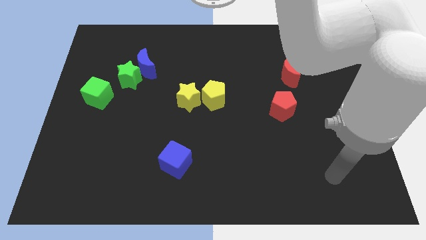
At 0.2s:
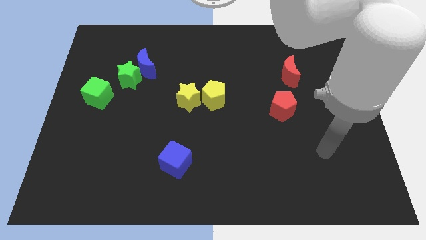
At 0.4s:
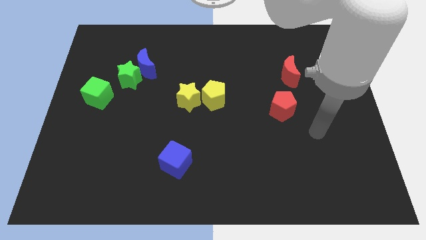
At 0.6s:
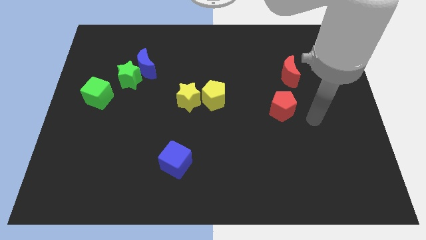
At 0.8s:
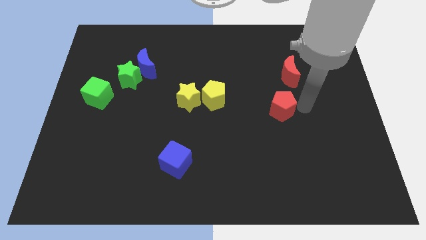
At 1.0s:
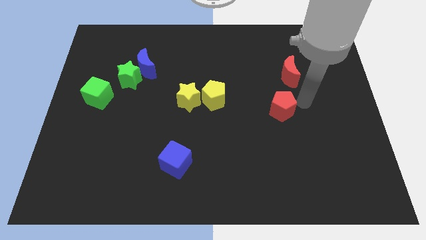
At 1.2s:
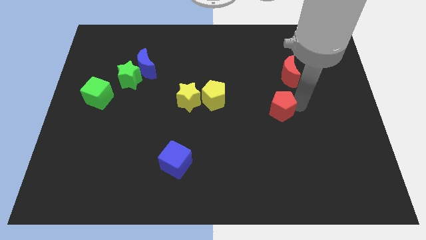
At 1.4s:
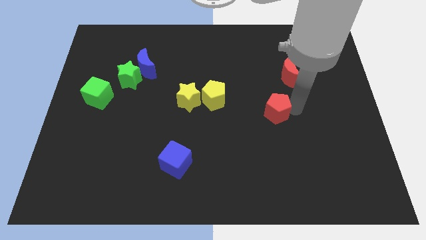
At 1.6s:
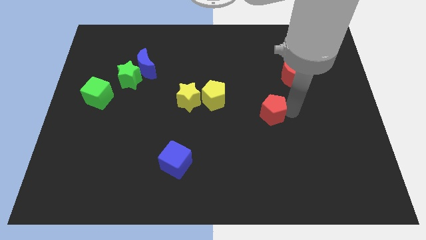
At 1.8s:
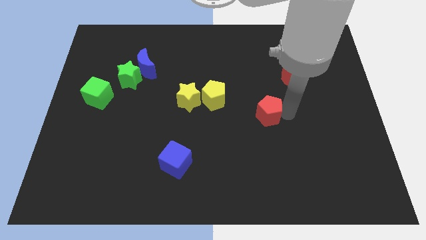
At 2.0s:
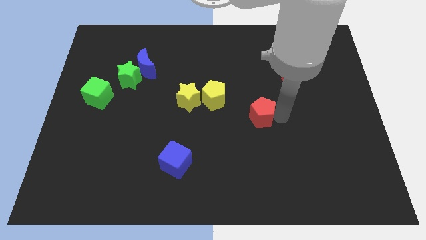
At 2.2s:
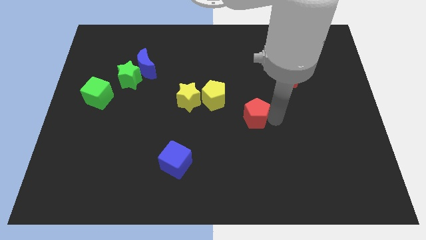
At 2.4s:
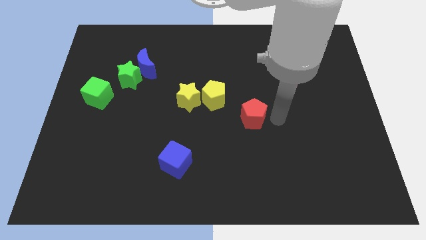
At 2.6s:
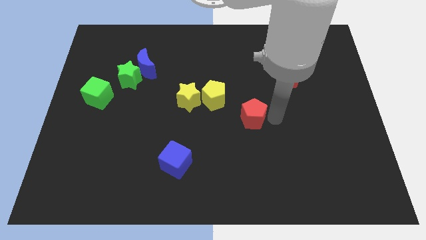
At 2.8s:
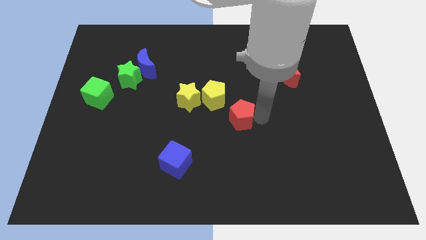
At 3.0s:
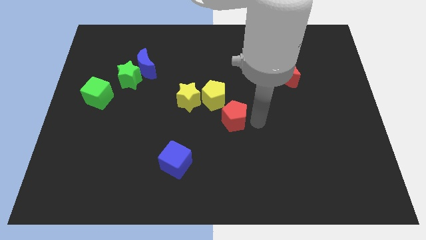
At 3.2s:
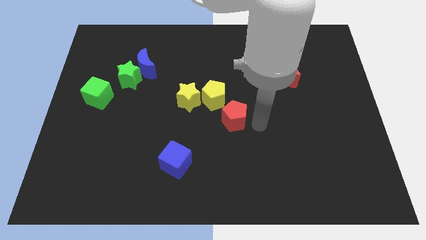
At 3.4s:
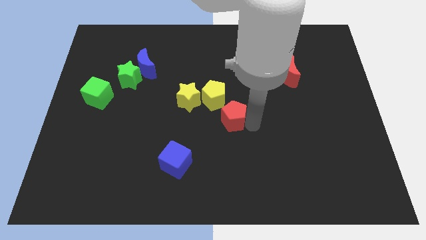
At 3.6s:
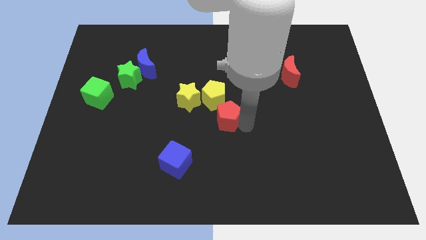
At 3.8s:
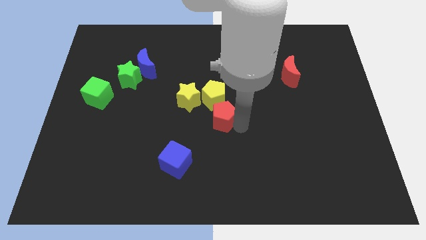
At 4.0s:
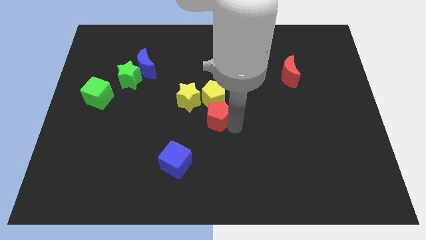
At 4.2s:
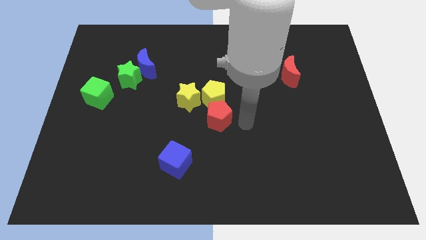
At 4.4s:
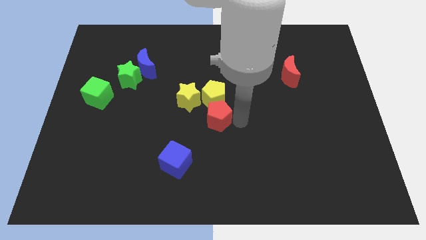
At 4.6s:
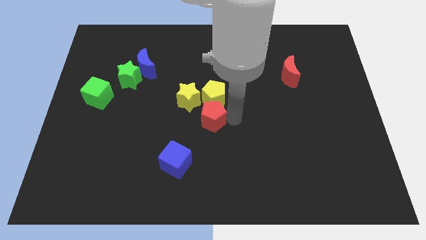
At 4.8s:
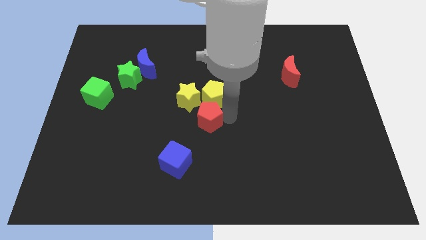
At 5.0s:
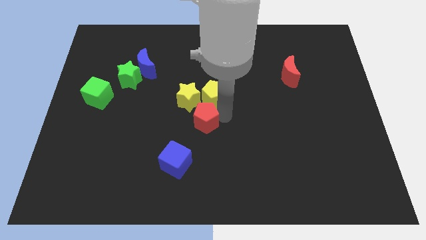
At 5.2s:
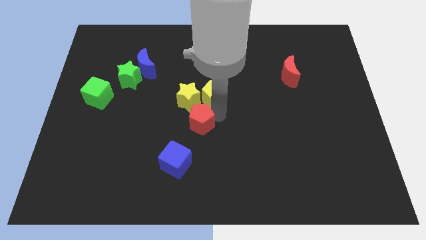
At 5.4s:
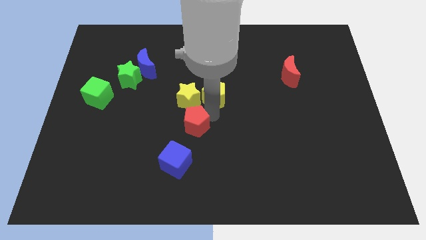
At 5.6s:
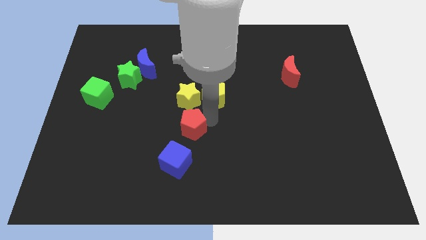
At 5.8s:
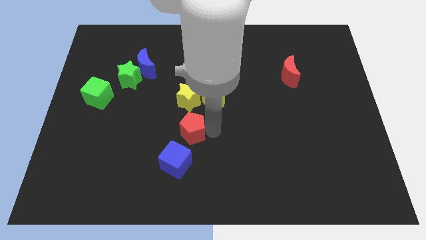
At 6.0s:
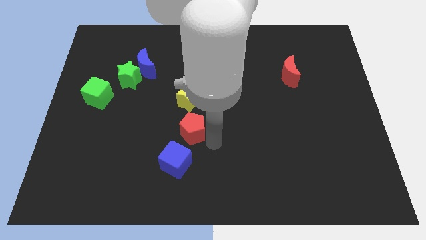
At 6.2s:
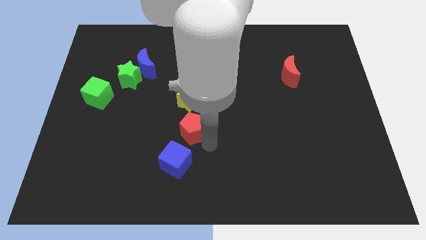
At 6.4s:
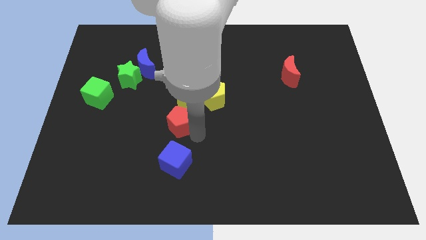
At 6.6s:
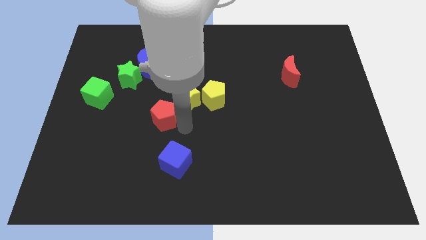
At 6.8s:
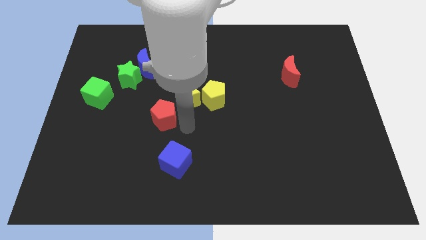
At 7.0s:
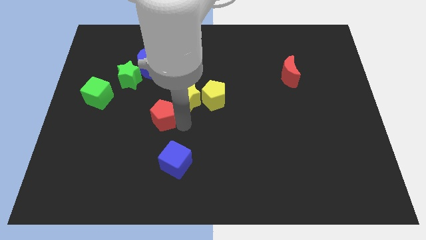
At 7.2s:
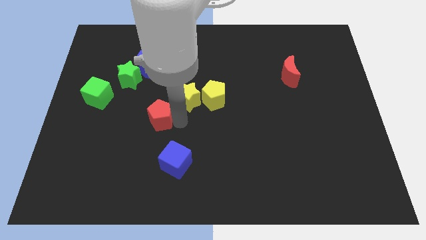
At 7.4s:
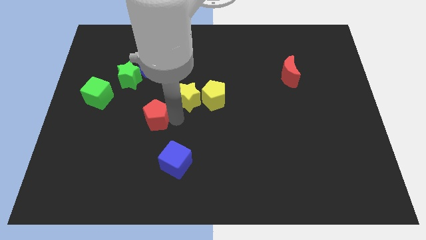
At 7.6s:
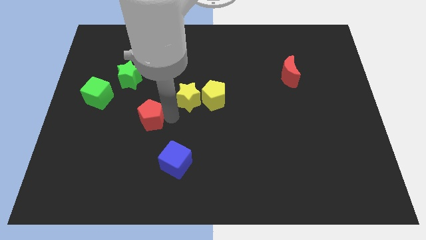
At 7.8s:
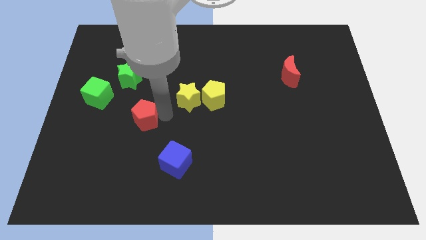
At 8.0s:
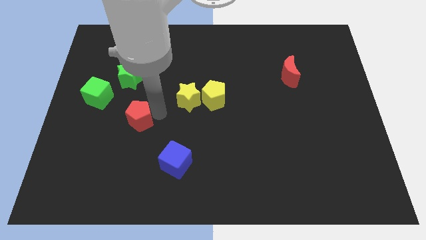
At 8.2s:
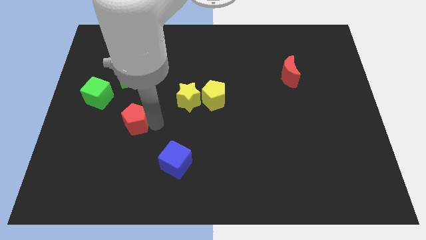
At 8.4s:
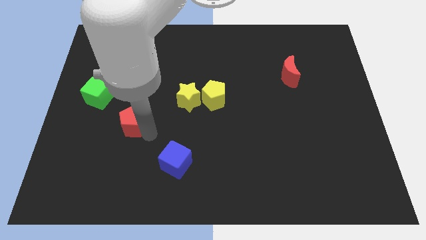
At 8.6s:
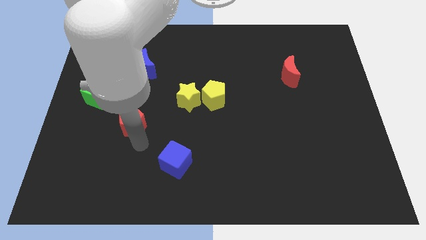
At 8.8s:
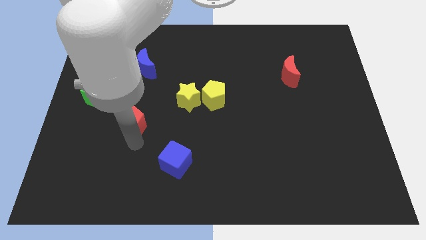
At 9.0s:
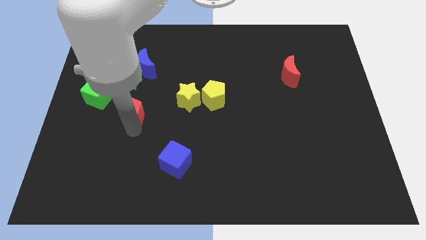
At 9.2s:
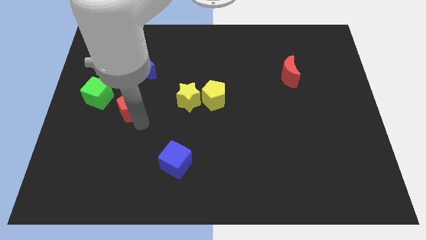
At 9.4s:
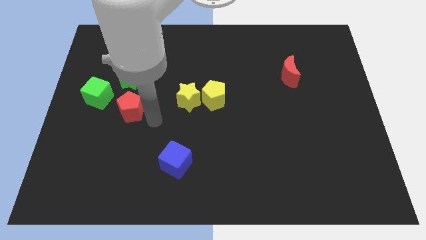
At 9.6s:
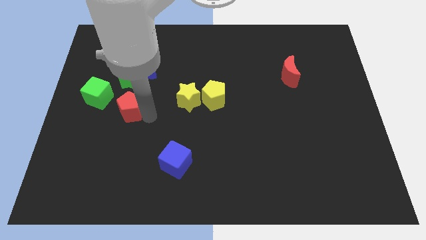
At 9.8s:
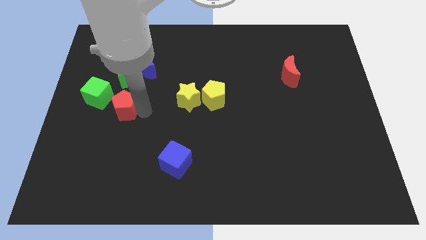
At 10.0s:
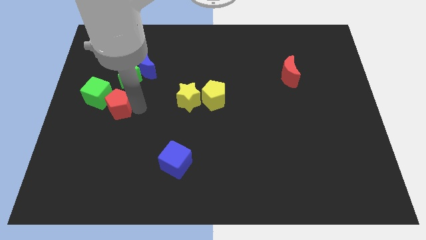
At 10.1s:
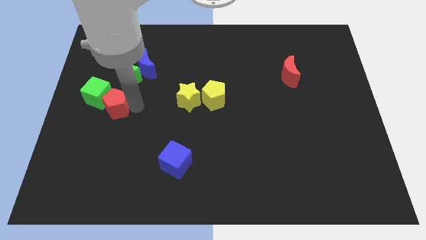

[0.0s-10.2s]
move the red pentagon to the green cube

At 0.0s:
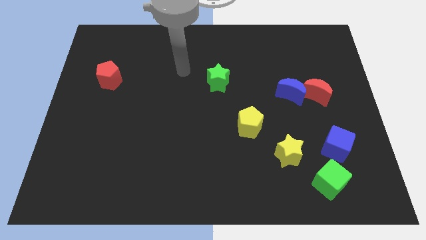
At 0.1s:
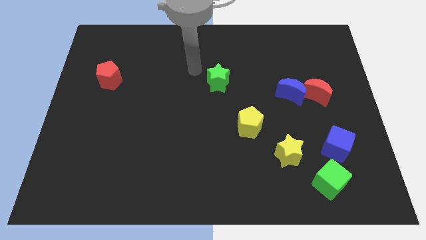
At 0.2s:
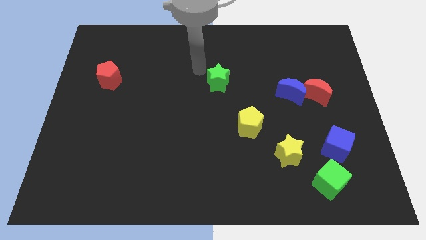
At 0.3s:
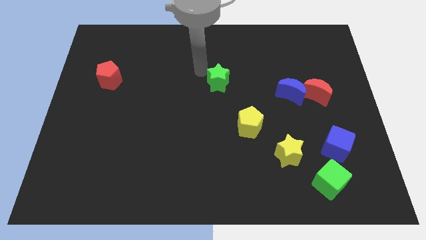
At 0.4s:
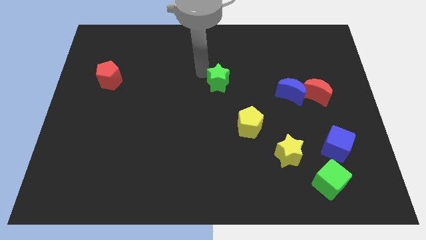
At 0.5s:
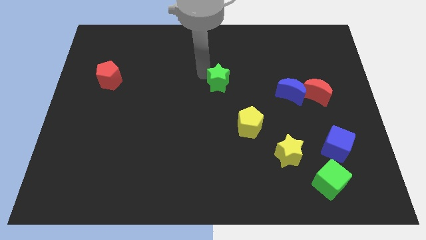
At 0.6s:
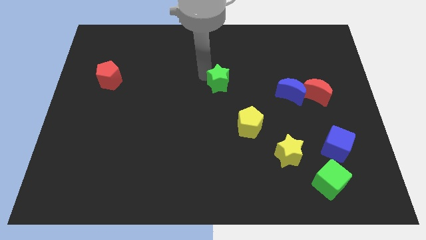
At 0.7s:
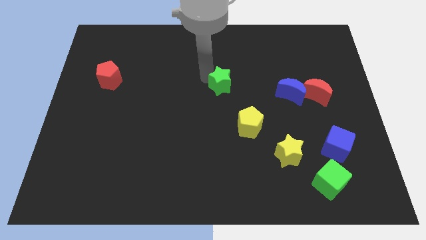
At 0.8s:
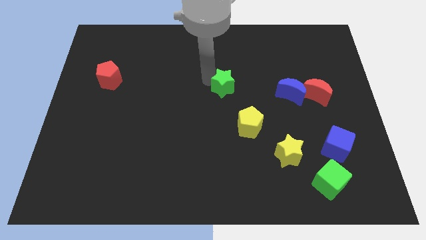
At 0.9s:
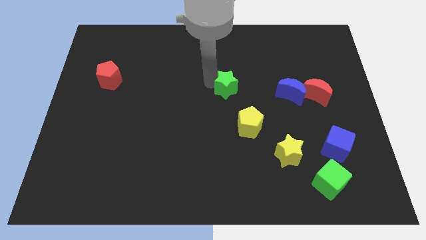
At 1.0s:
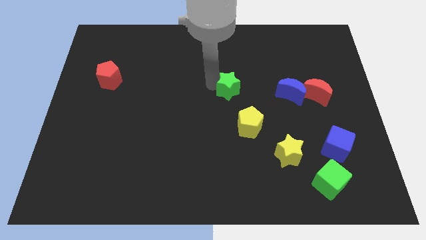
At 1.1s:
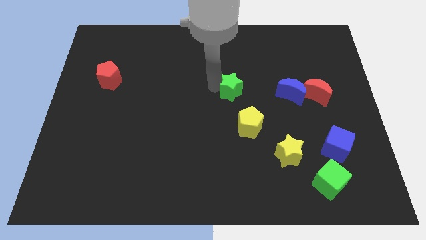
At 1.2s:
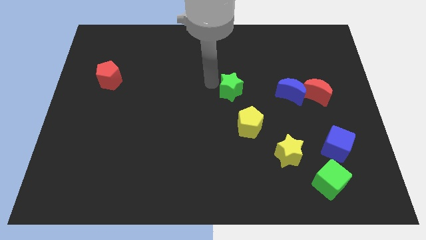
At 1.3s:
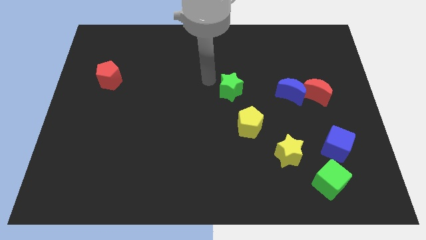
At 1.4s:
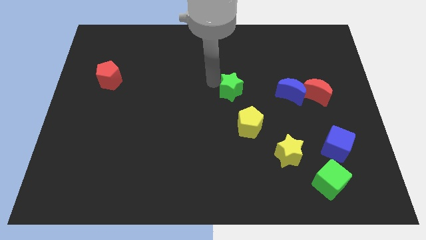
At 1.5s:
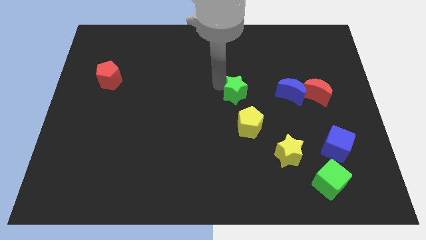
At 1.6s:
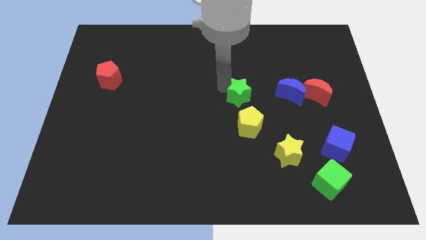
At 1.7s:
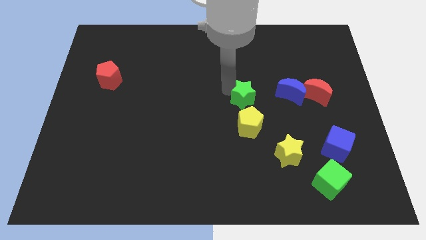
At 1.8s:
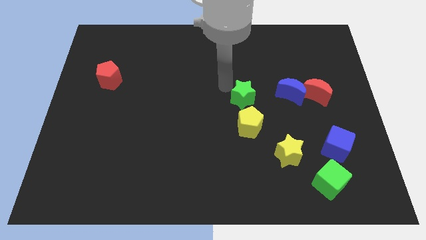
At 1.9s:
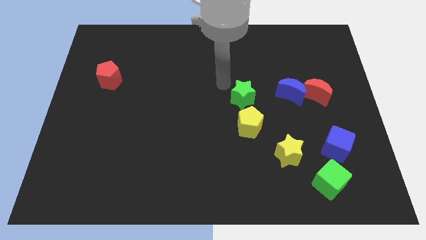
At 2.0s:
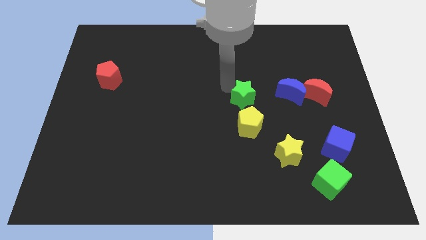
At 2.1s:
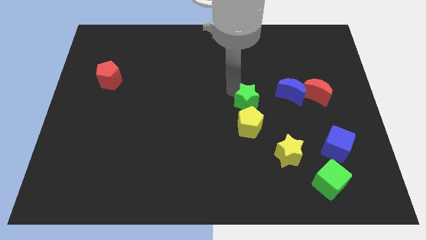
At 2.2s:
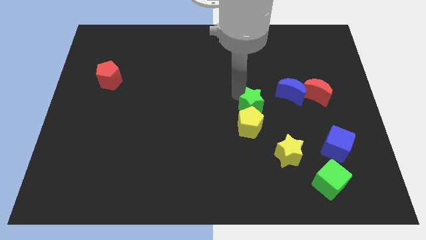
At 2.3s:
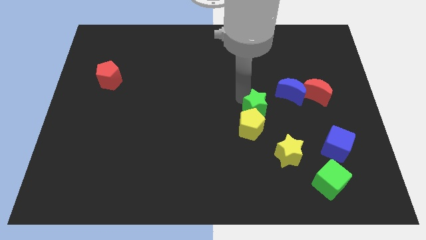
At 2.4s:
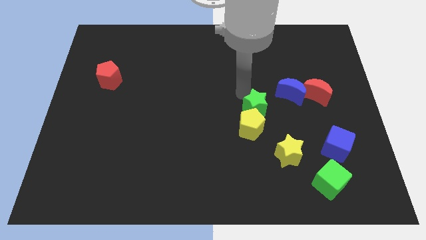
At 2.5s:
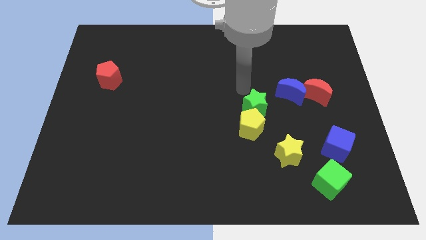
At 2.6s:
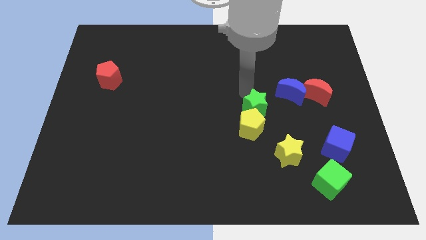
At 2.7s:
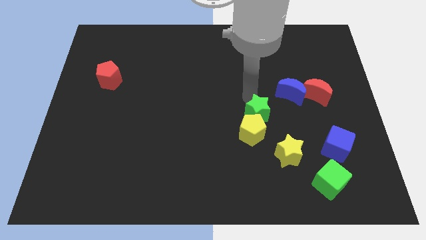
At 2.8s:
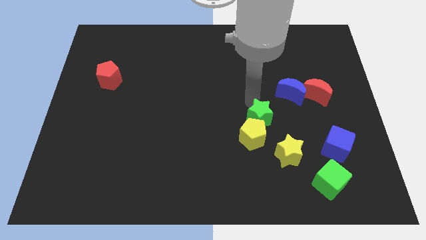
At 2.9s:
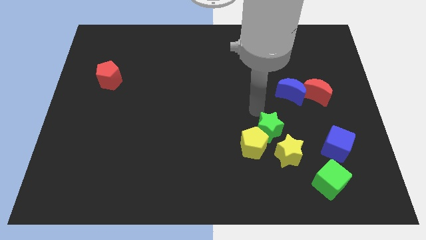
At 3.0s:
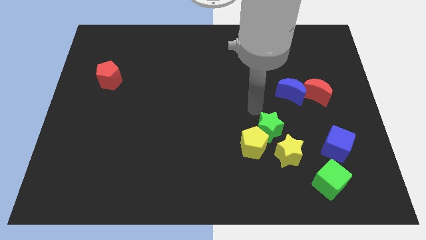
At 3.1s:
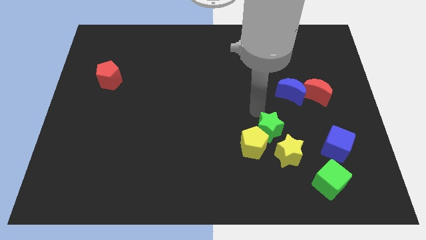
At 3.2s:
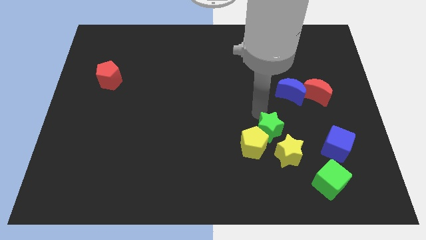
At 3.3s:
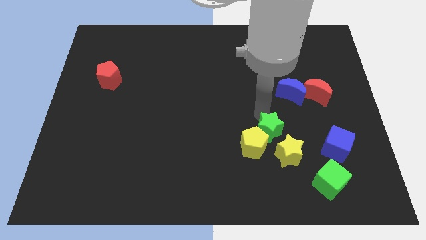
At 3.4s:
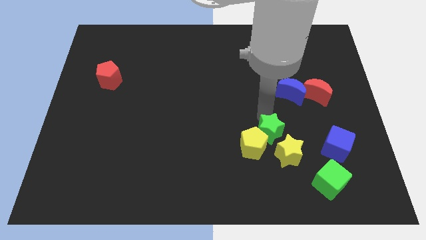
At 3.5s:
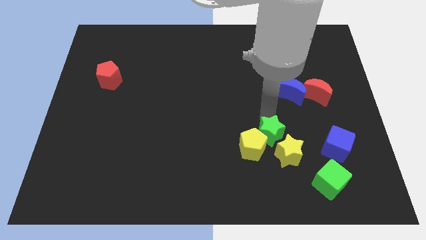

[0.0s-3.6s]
push the green star towards the yellow star
